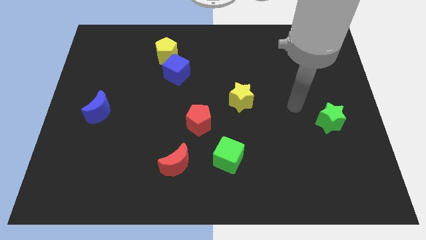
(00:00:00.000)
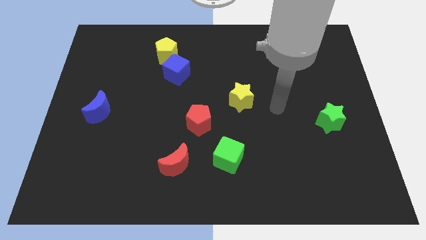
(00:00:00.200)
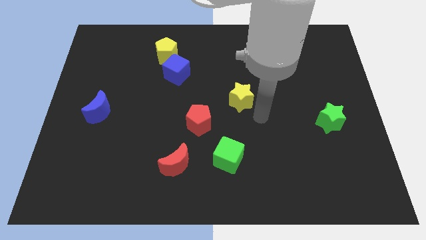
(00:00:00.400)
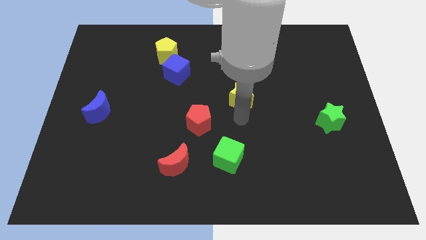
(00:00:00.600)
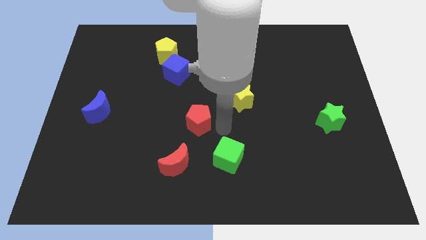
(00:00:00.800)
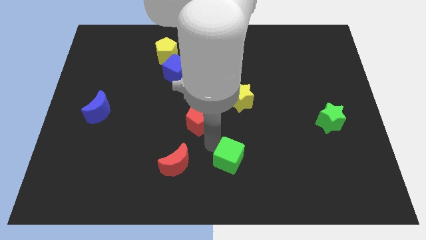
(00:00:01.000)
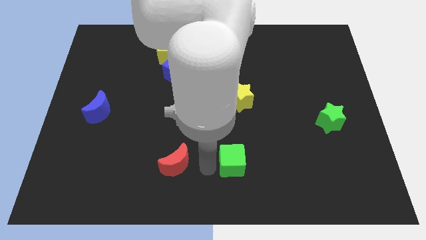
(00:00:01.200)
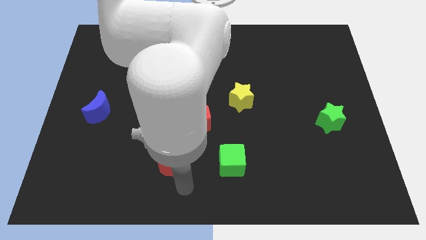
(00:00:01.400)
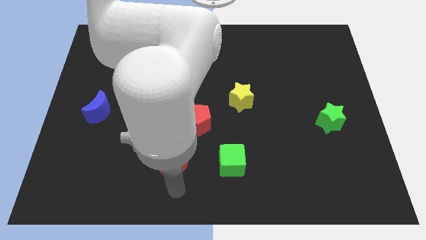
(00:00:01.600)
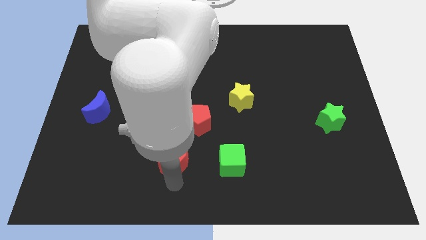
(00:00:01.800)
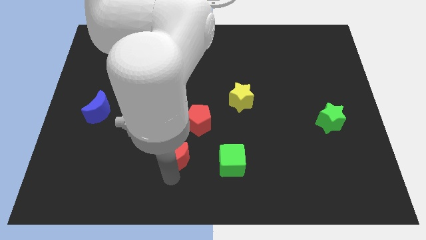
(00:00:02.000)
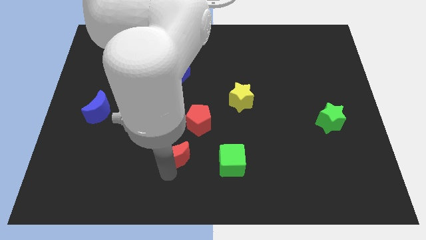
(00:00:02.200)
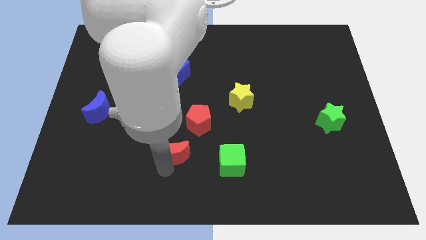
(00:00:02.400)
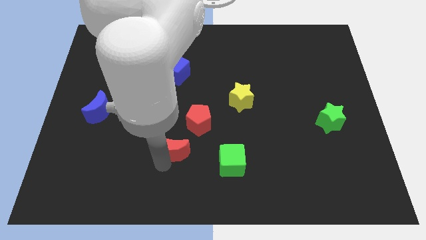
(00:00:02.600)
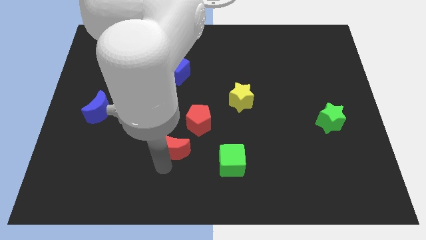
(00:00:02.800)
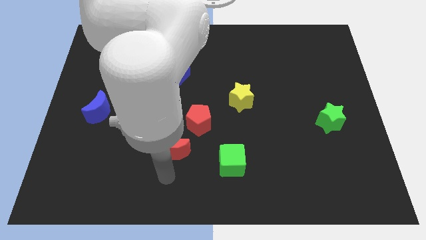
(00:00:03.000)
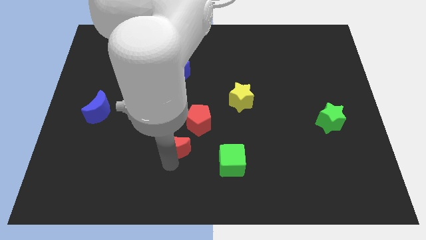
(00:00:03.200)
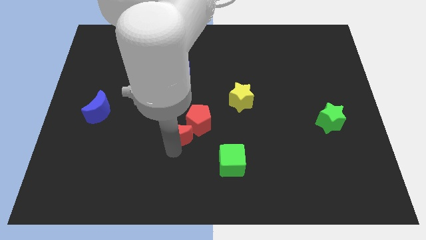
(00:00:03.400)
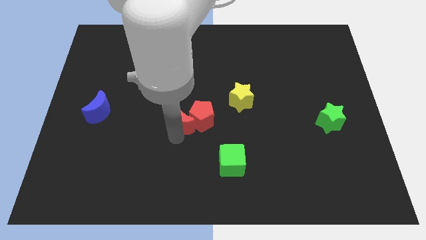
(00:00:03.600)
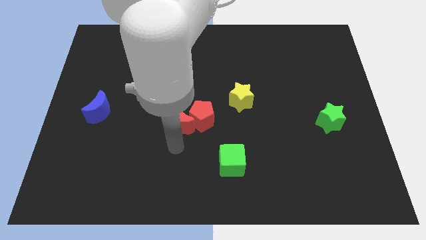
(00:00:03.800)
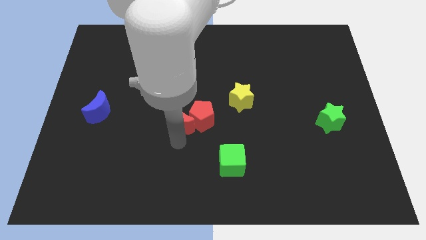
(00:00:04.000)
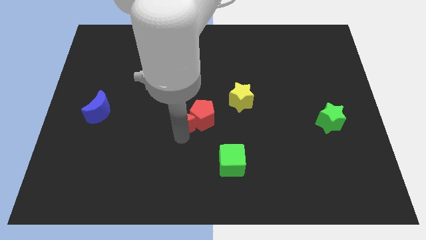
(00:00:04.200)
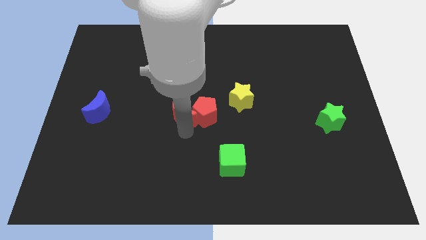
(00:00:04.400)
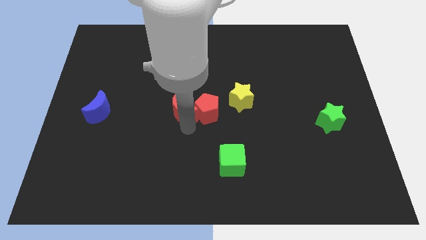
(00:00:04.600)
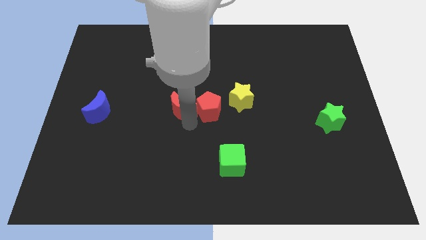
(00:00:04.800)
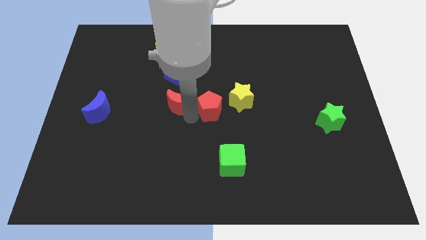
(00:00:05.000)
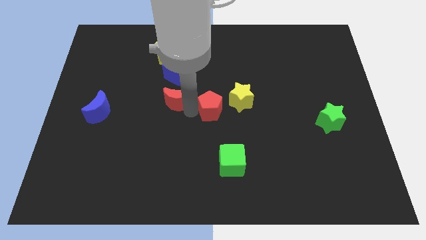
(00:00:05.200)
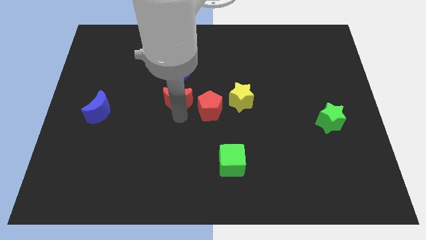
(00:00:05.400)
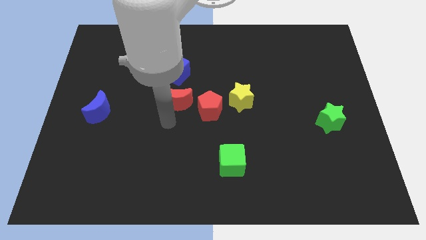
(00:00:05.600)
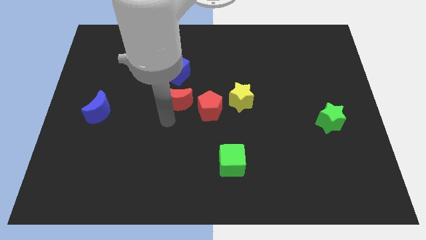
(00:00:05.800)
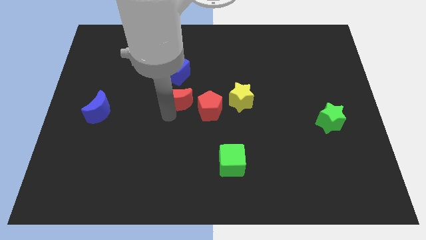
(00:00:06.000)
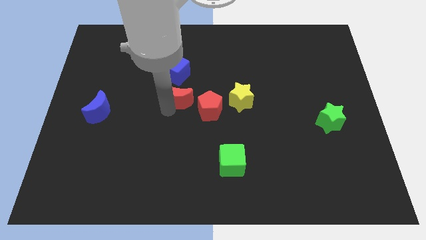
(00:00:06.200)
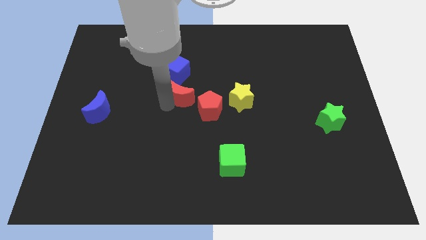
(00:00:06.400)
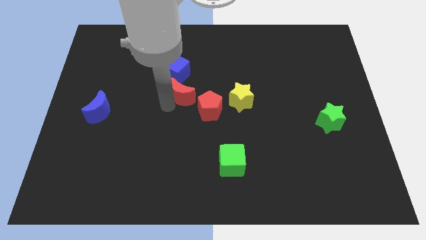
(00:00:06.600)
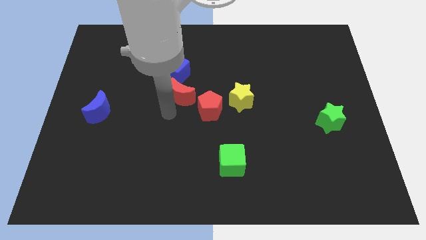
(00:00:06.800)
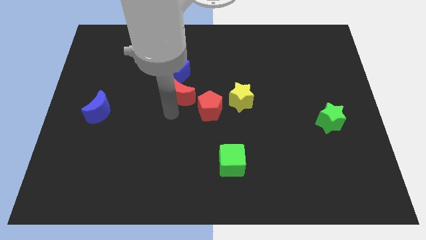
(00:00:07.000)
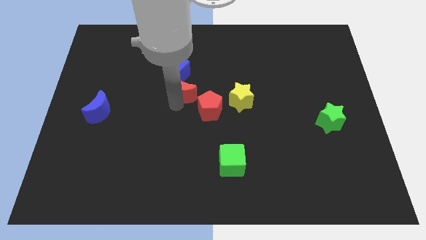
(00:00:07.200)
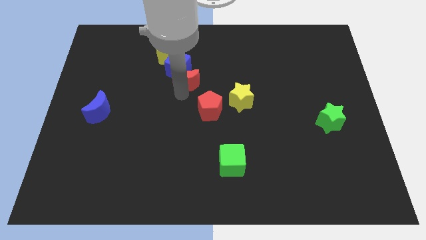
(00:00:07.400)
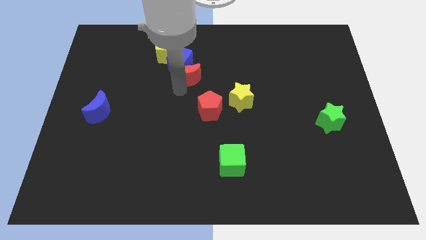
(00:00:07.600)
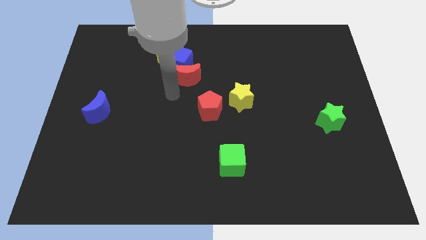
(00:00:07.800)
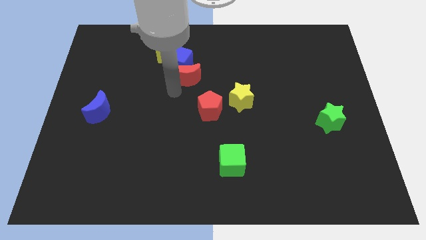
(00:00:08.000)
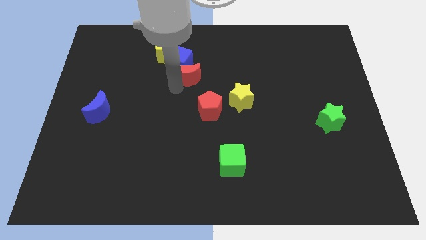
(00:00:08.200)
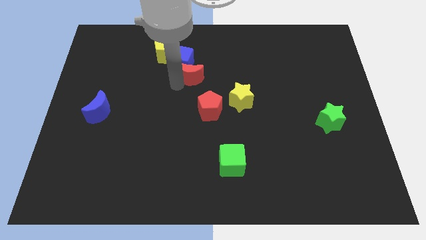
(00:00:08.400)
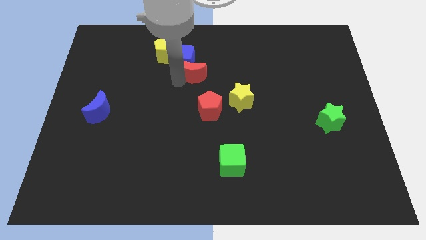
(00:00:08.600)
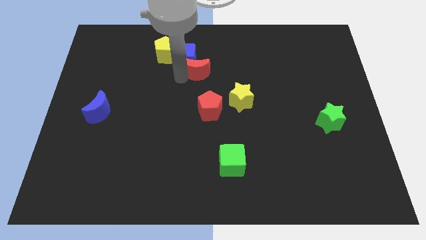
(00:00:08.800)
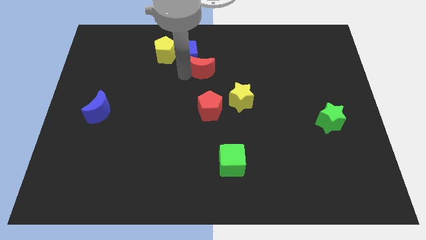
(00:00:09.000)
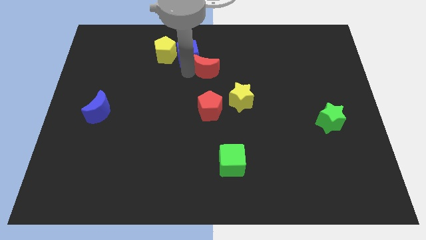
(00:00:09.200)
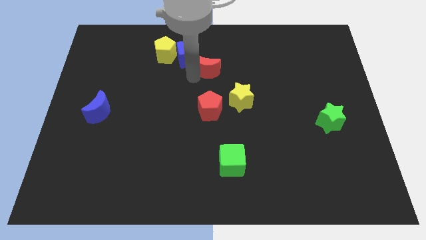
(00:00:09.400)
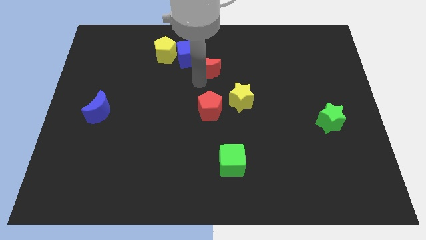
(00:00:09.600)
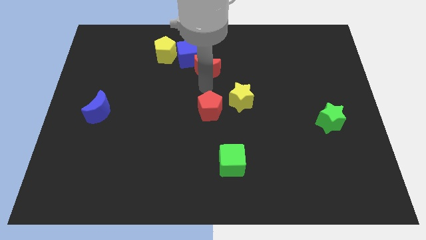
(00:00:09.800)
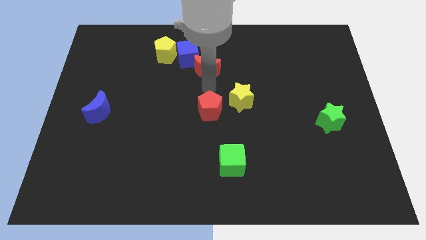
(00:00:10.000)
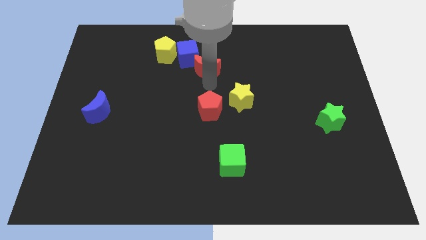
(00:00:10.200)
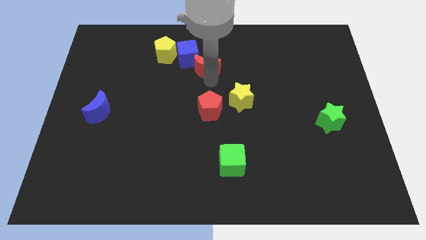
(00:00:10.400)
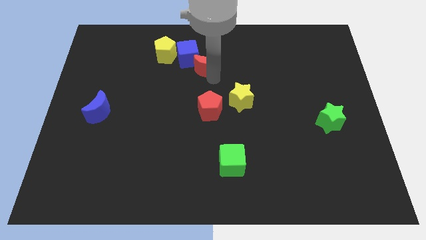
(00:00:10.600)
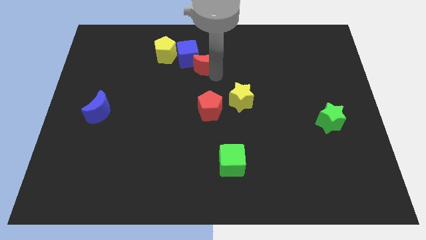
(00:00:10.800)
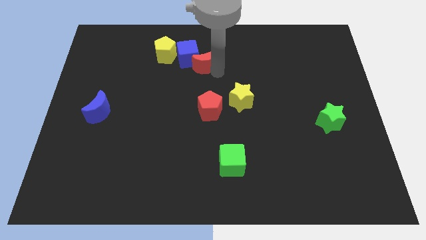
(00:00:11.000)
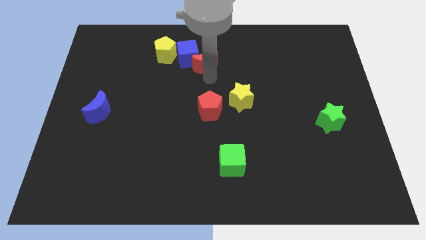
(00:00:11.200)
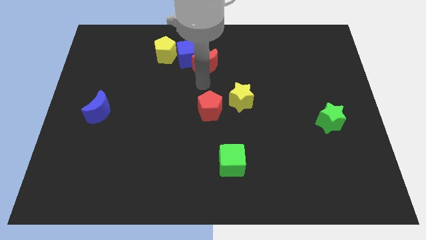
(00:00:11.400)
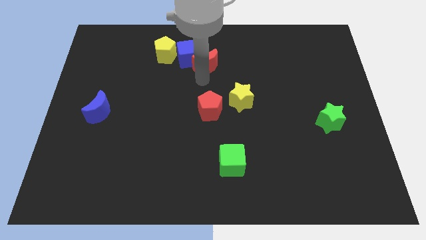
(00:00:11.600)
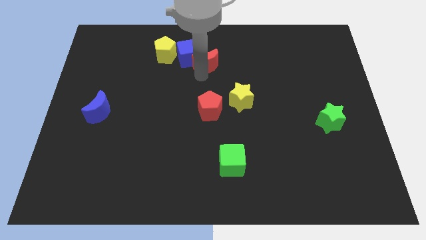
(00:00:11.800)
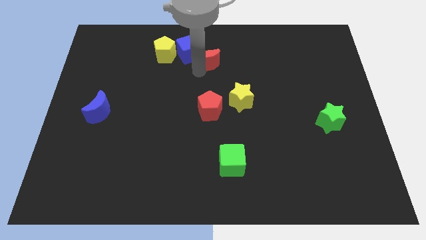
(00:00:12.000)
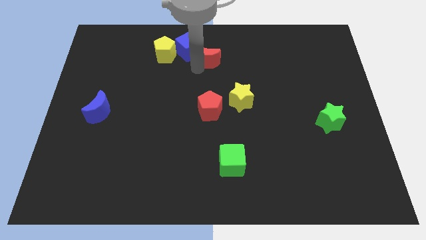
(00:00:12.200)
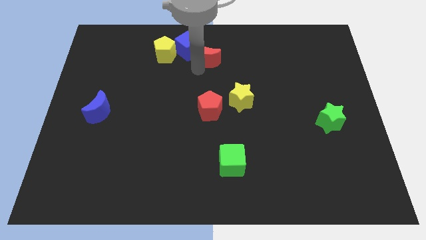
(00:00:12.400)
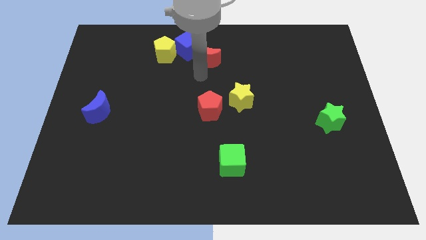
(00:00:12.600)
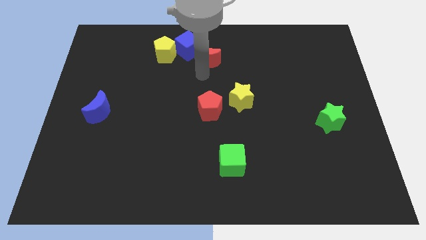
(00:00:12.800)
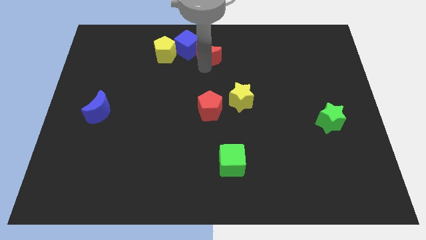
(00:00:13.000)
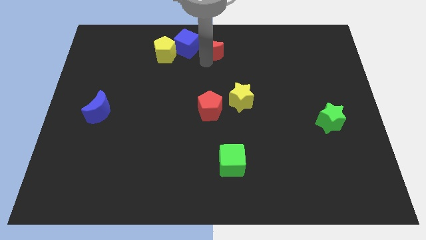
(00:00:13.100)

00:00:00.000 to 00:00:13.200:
move the red moon to the top
